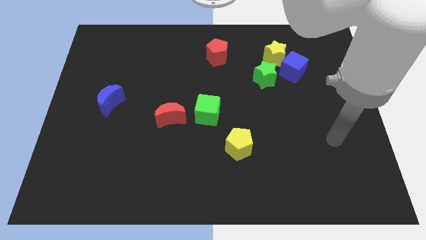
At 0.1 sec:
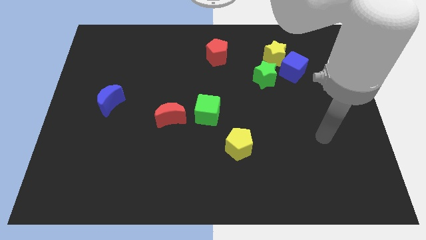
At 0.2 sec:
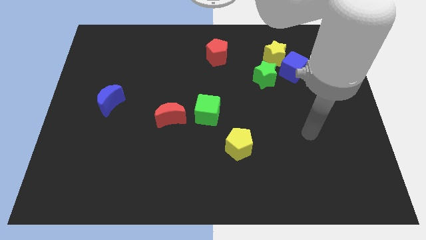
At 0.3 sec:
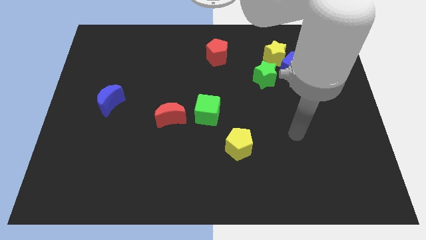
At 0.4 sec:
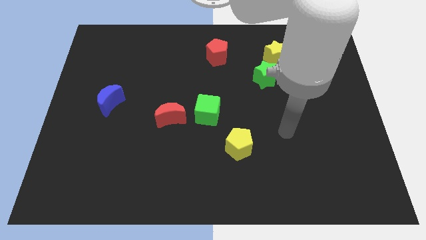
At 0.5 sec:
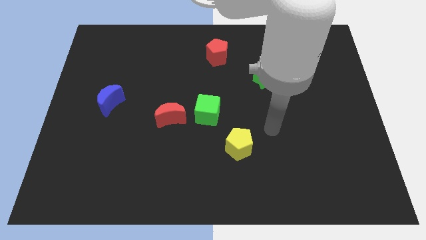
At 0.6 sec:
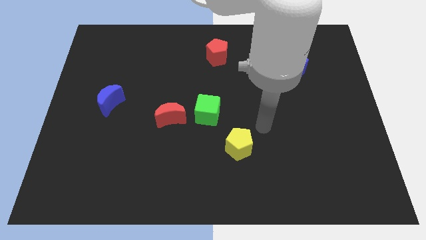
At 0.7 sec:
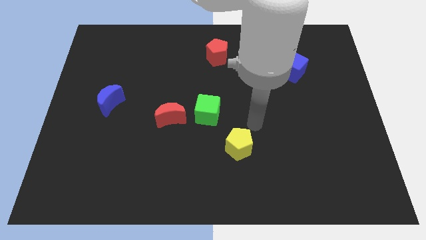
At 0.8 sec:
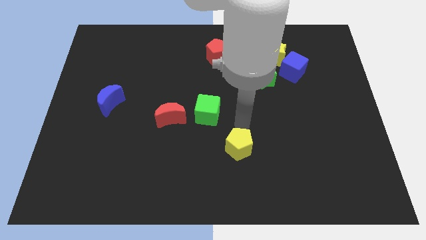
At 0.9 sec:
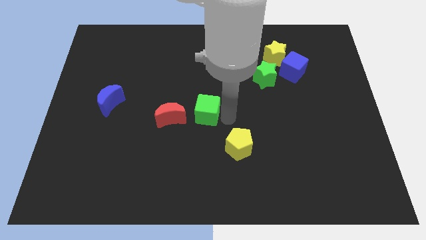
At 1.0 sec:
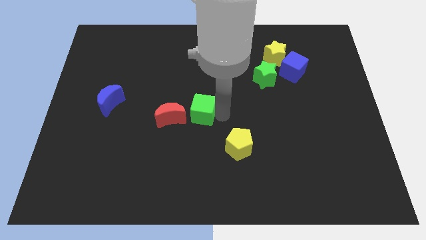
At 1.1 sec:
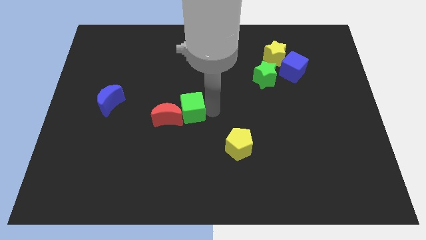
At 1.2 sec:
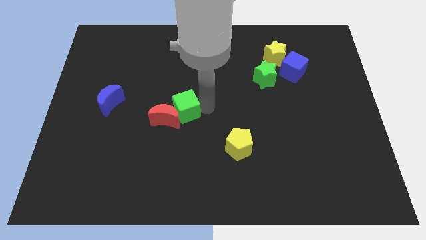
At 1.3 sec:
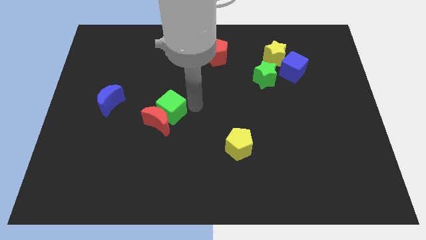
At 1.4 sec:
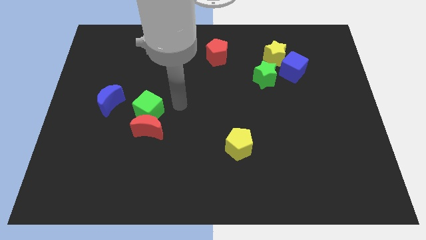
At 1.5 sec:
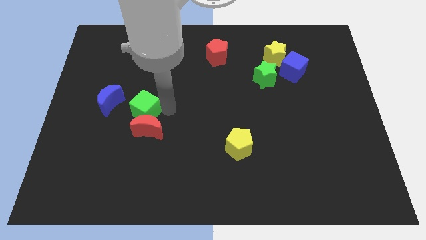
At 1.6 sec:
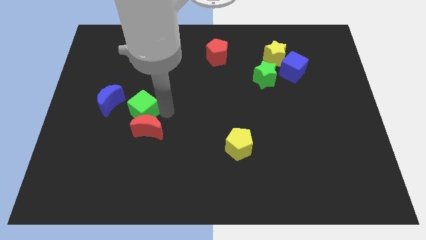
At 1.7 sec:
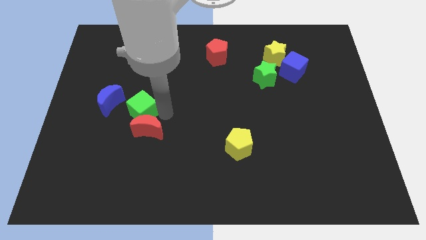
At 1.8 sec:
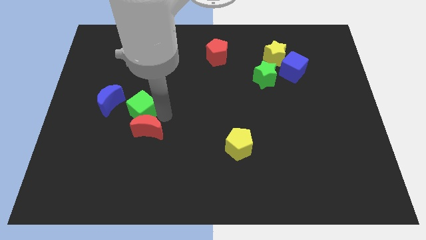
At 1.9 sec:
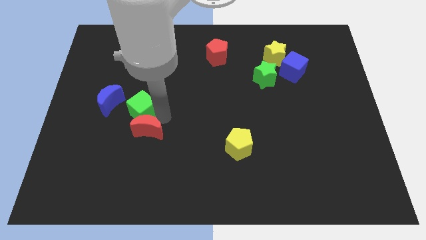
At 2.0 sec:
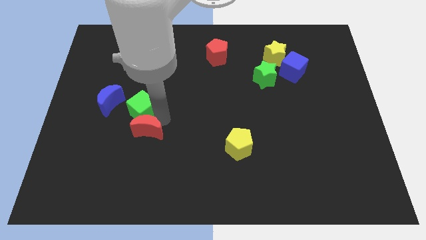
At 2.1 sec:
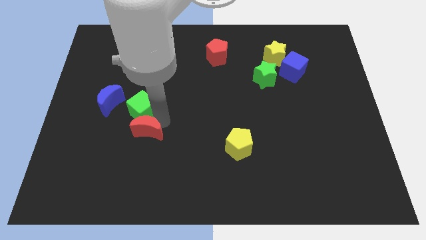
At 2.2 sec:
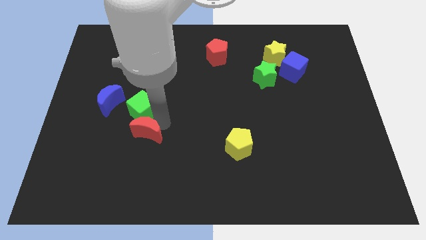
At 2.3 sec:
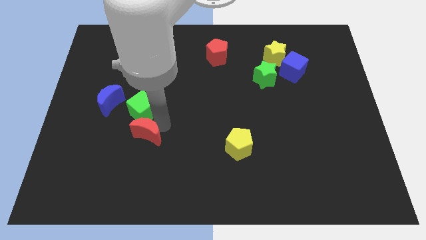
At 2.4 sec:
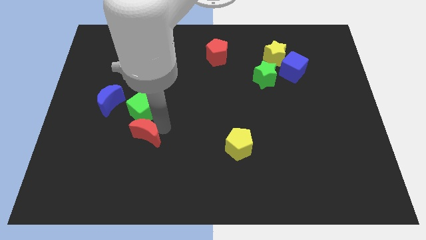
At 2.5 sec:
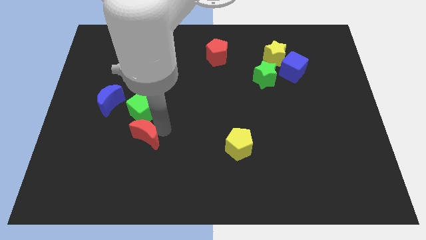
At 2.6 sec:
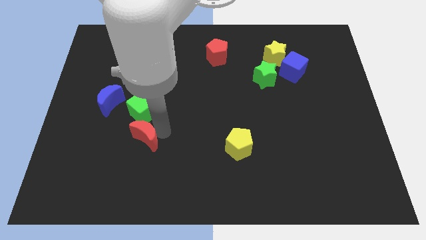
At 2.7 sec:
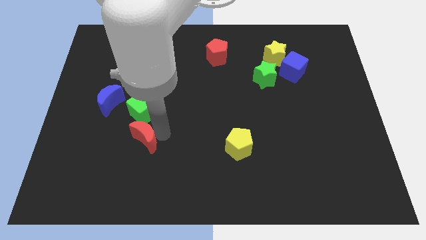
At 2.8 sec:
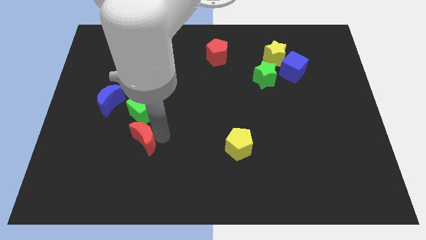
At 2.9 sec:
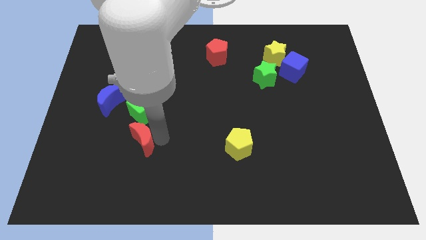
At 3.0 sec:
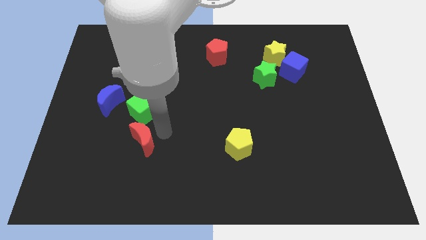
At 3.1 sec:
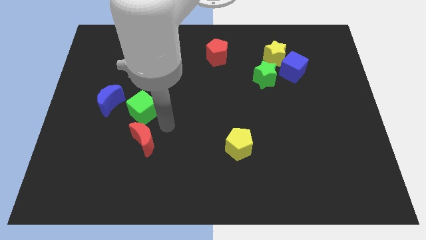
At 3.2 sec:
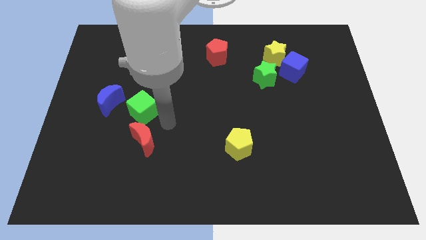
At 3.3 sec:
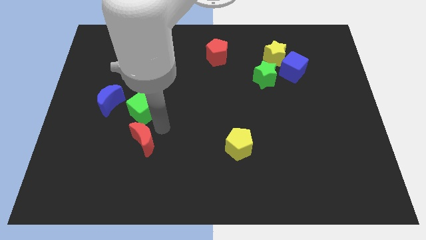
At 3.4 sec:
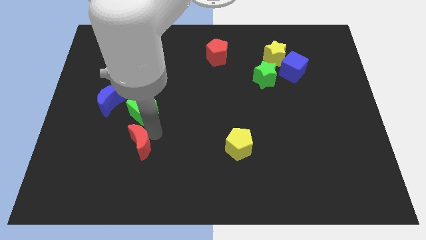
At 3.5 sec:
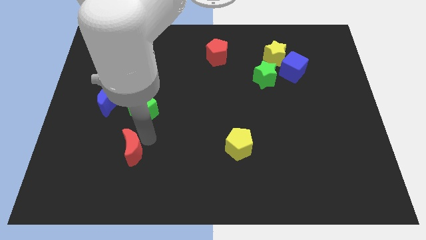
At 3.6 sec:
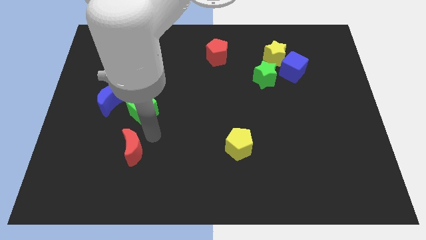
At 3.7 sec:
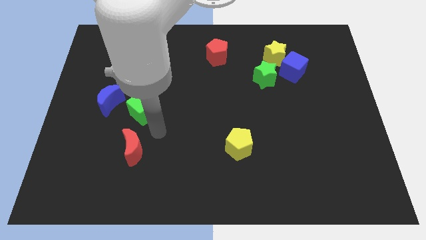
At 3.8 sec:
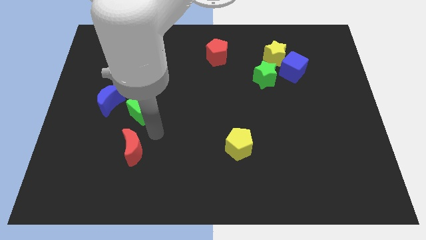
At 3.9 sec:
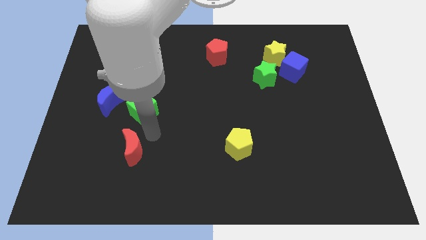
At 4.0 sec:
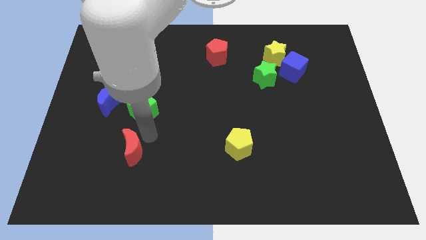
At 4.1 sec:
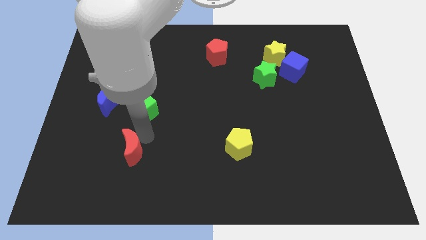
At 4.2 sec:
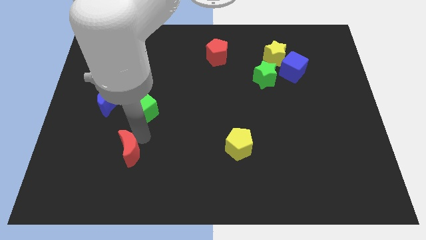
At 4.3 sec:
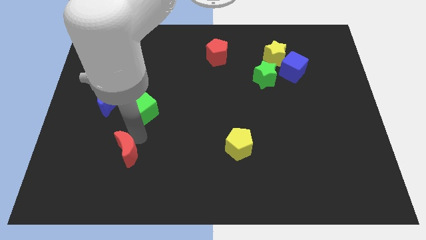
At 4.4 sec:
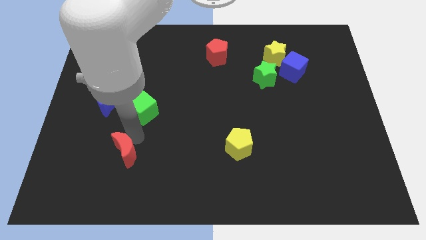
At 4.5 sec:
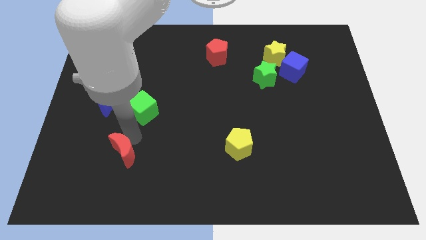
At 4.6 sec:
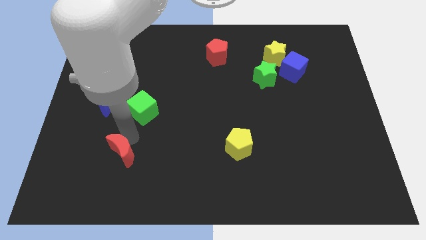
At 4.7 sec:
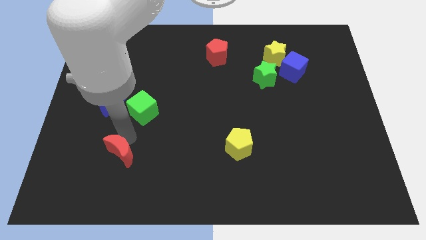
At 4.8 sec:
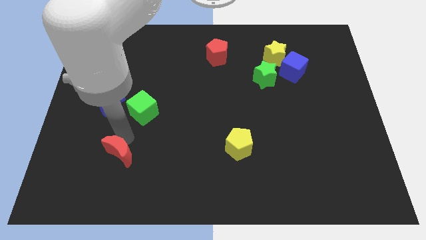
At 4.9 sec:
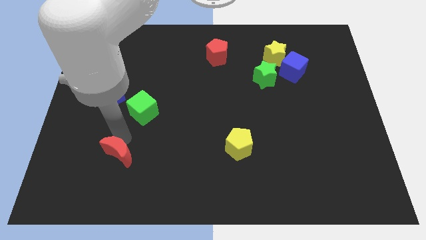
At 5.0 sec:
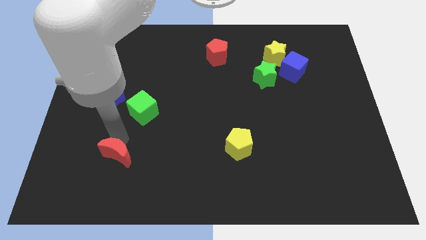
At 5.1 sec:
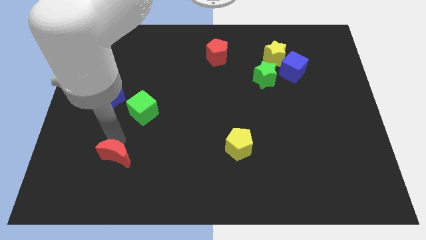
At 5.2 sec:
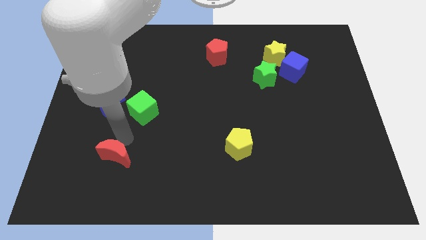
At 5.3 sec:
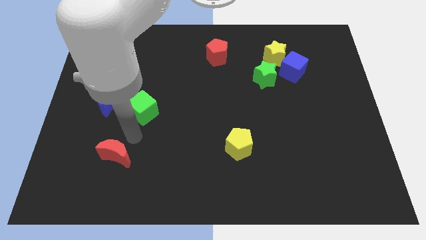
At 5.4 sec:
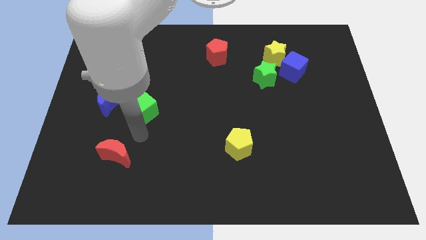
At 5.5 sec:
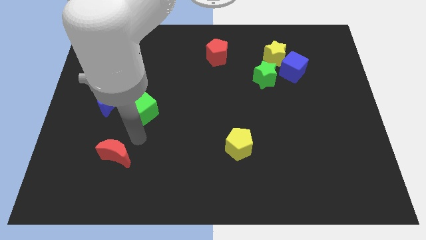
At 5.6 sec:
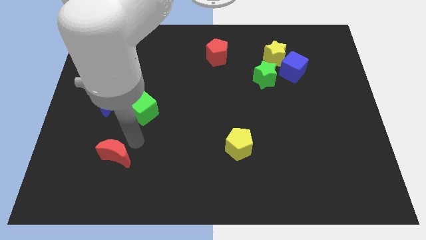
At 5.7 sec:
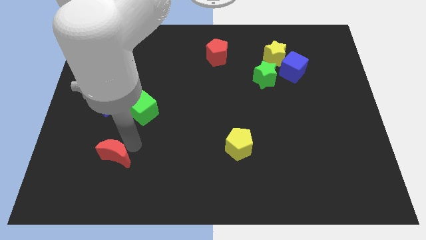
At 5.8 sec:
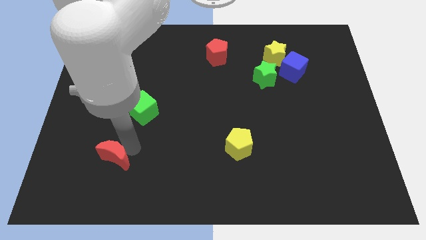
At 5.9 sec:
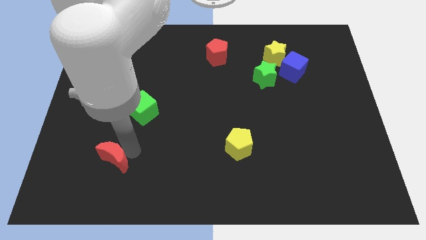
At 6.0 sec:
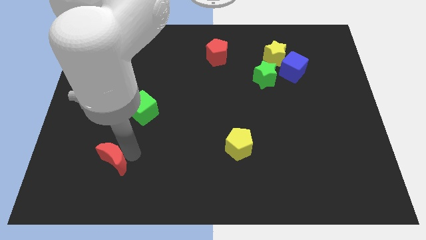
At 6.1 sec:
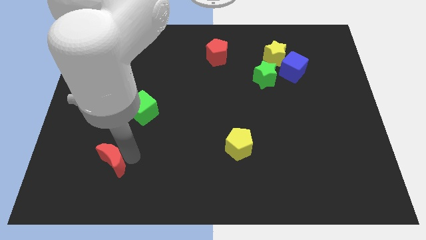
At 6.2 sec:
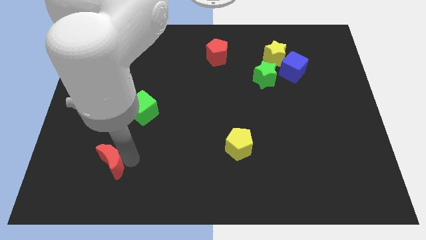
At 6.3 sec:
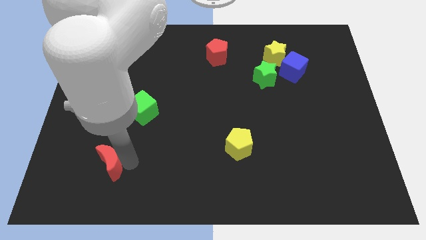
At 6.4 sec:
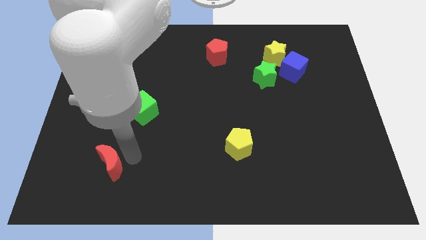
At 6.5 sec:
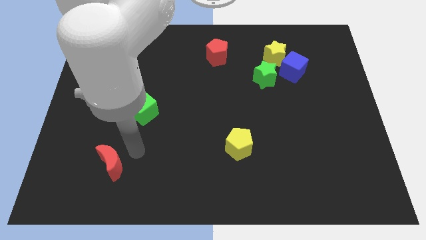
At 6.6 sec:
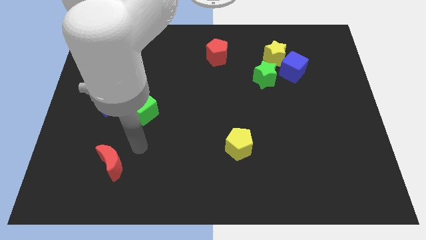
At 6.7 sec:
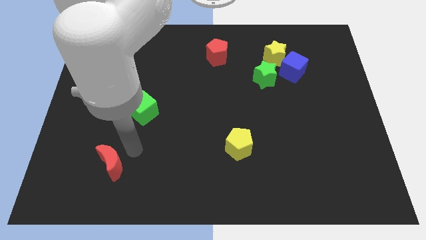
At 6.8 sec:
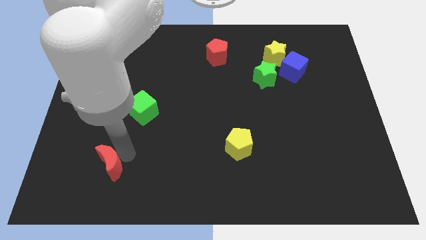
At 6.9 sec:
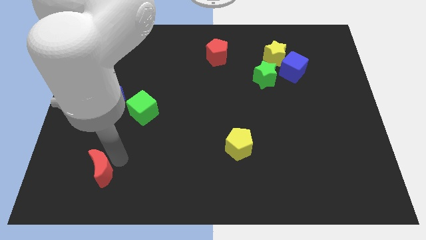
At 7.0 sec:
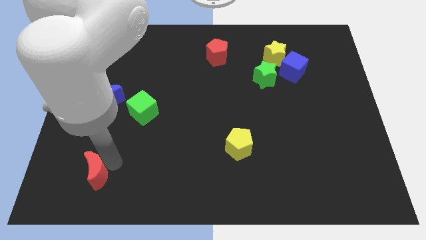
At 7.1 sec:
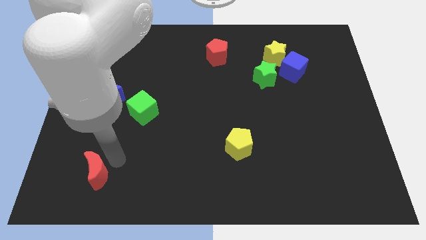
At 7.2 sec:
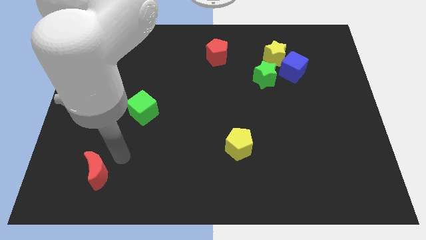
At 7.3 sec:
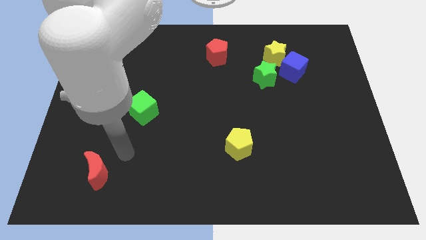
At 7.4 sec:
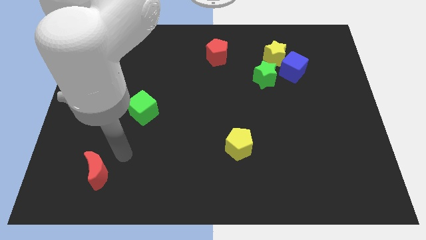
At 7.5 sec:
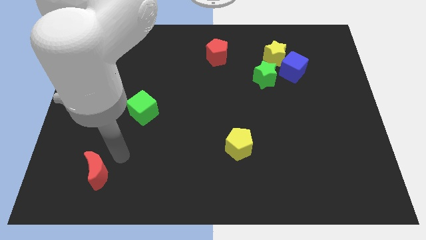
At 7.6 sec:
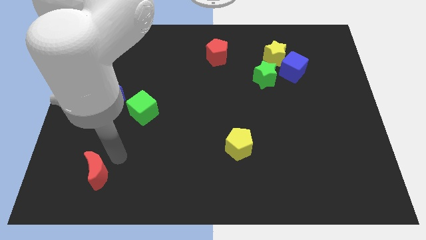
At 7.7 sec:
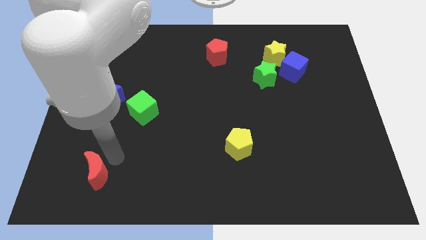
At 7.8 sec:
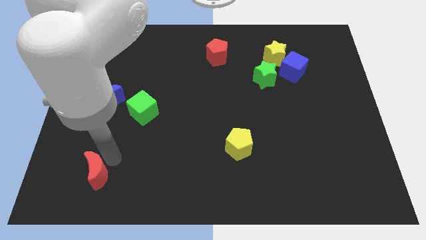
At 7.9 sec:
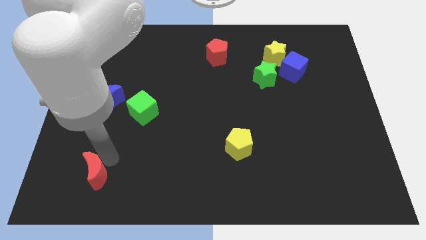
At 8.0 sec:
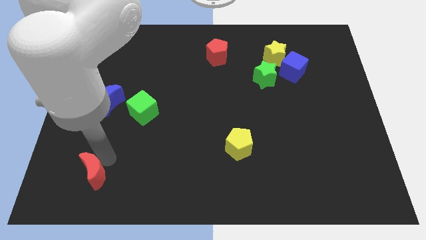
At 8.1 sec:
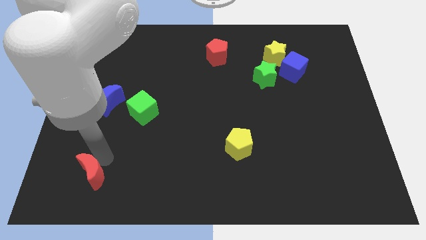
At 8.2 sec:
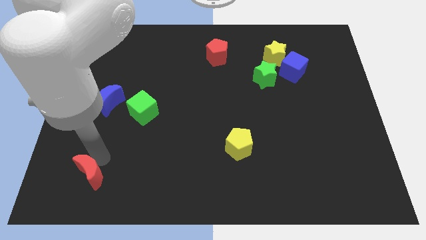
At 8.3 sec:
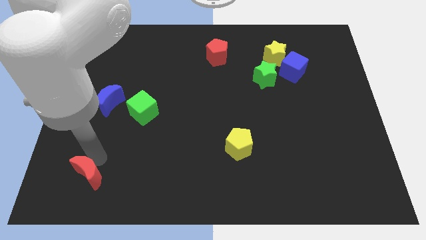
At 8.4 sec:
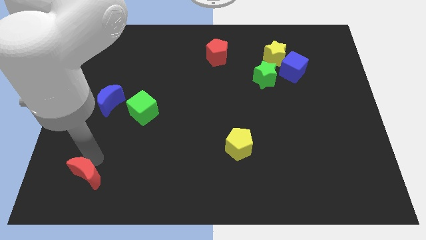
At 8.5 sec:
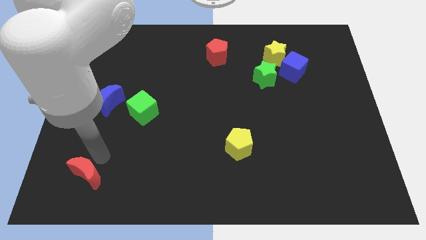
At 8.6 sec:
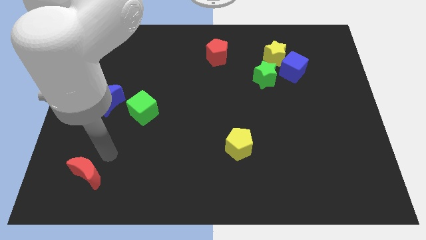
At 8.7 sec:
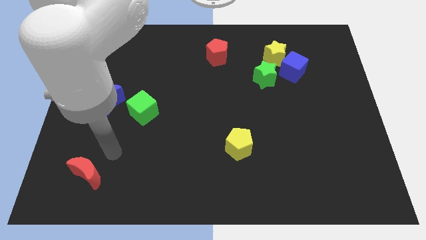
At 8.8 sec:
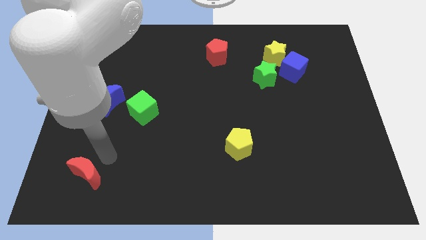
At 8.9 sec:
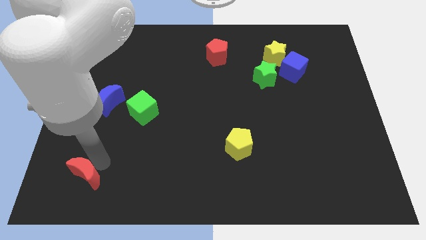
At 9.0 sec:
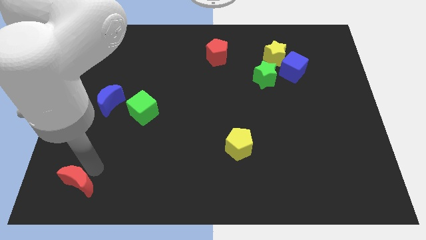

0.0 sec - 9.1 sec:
put the red moon to the bottom left of the board
